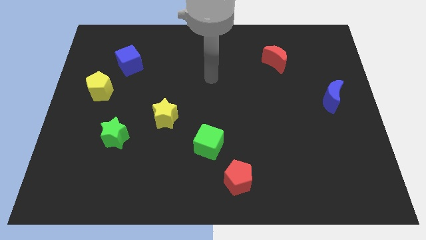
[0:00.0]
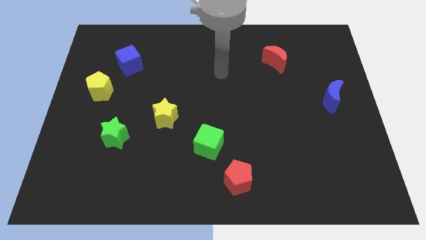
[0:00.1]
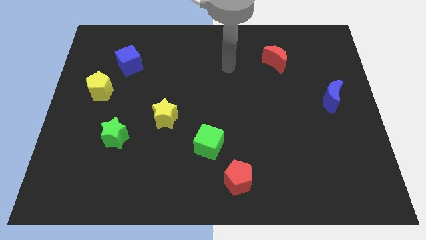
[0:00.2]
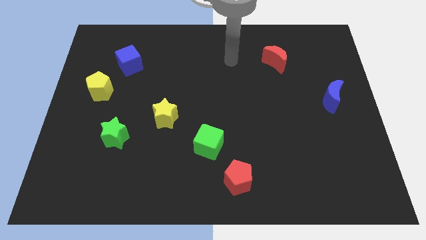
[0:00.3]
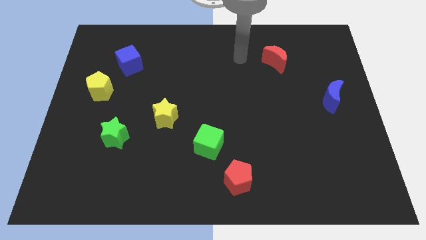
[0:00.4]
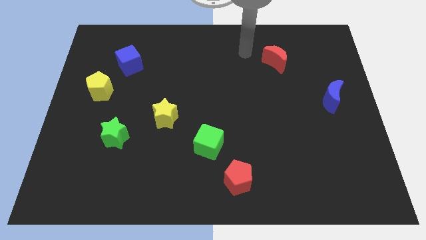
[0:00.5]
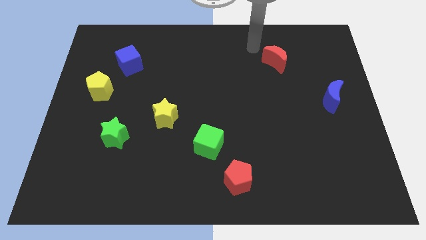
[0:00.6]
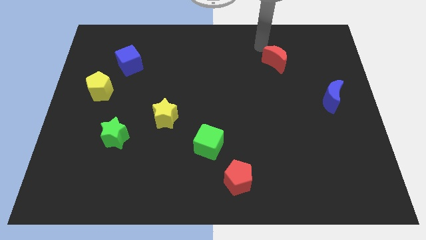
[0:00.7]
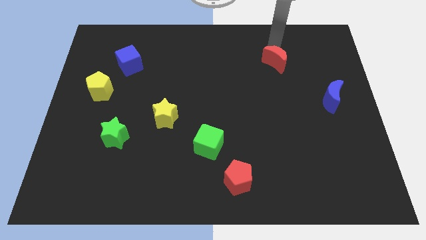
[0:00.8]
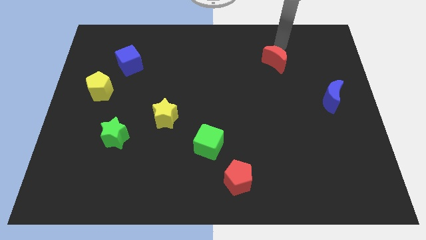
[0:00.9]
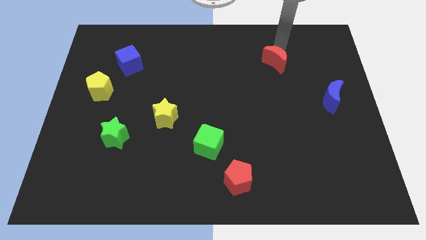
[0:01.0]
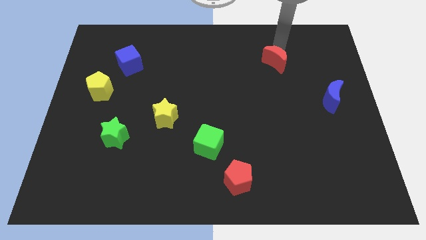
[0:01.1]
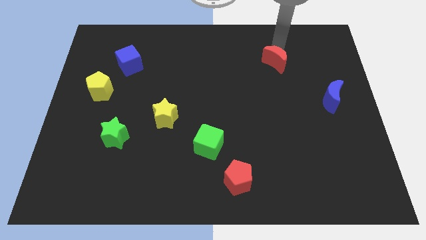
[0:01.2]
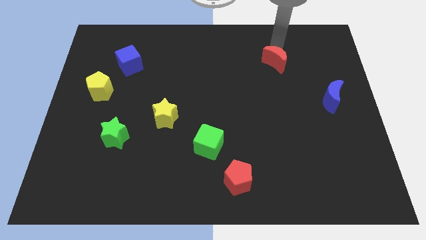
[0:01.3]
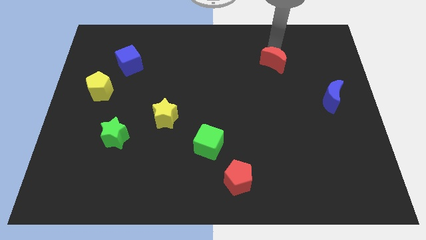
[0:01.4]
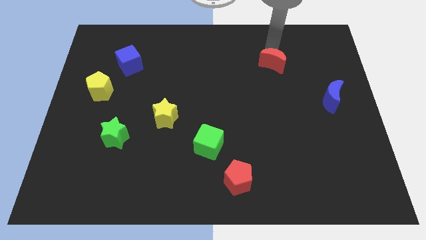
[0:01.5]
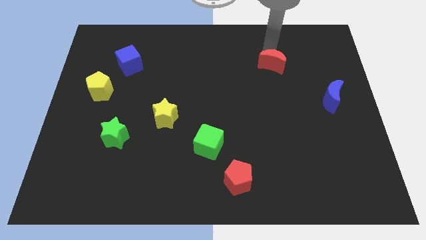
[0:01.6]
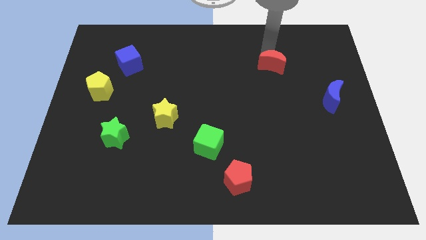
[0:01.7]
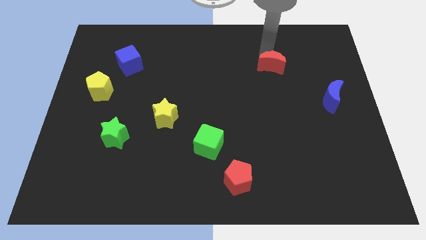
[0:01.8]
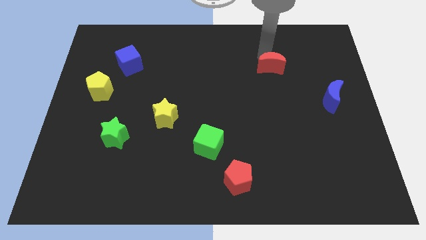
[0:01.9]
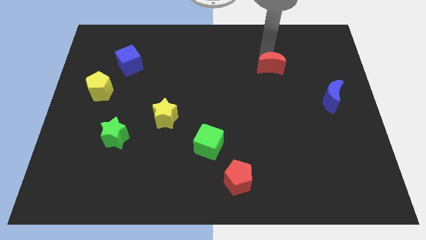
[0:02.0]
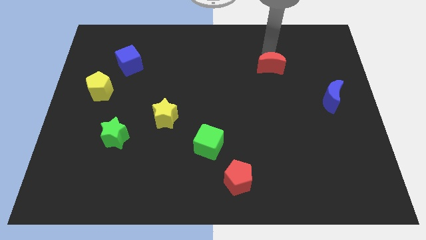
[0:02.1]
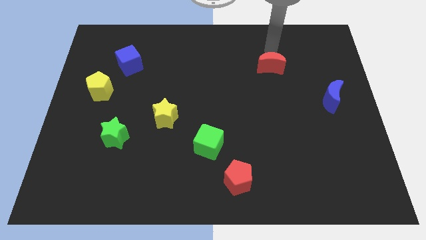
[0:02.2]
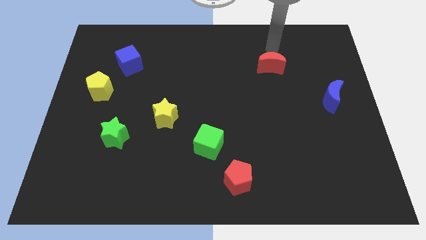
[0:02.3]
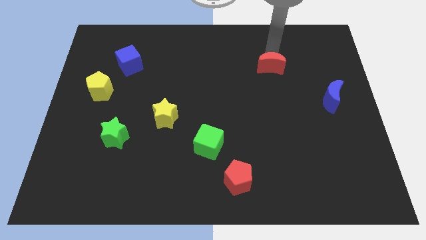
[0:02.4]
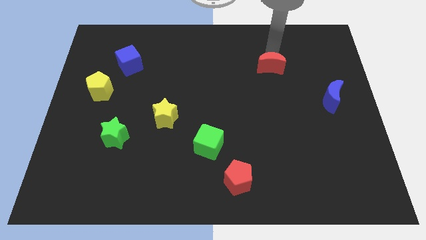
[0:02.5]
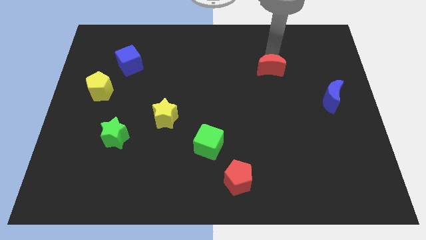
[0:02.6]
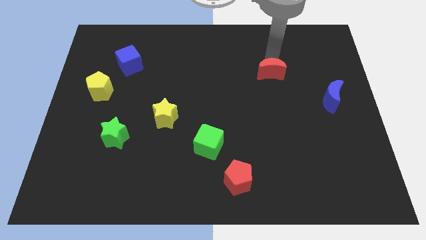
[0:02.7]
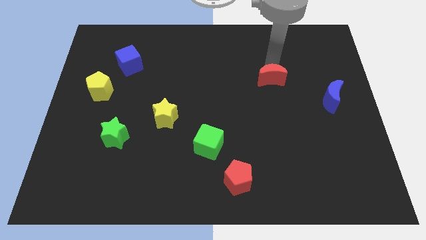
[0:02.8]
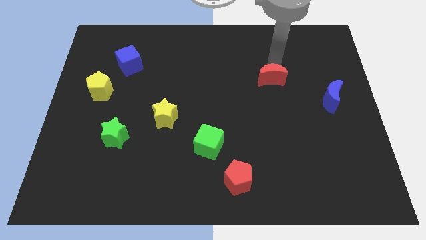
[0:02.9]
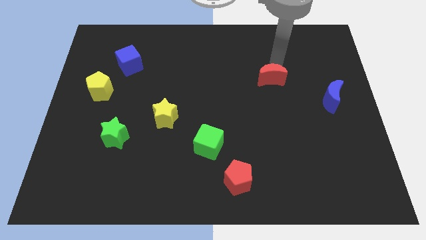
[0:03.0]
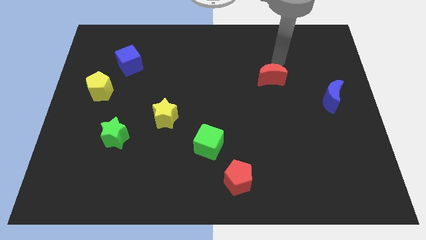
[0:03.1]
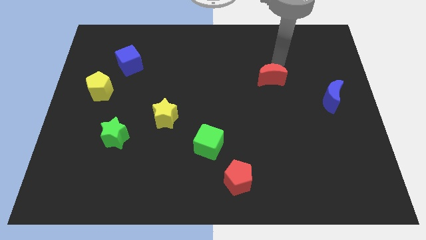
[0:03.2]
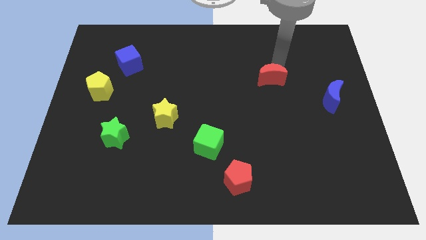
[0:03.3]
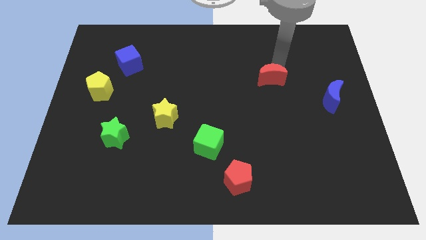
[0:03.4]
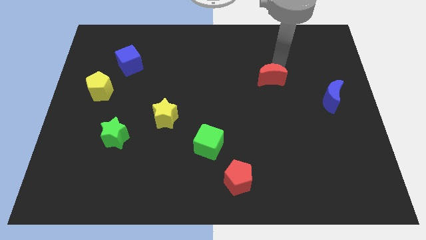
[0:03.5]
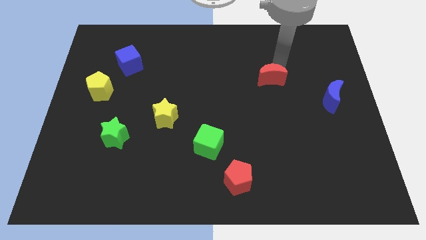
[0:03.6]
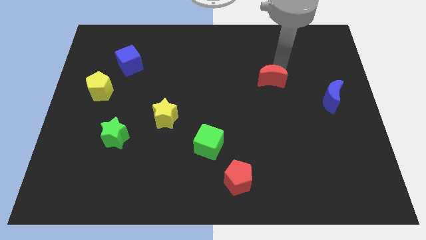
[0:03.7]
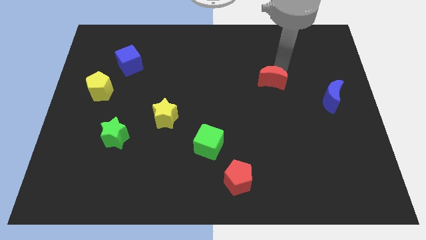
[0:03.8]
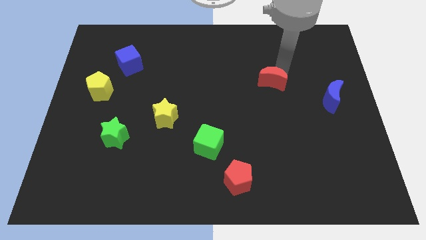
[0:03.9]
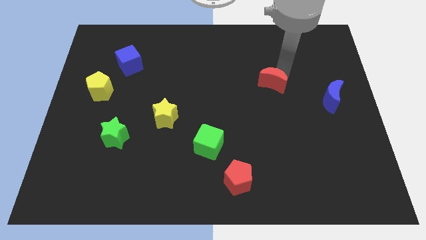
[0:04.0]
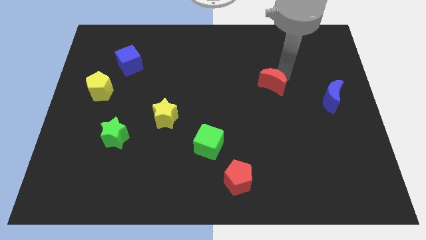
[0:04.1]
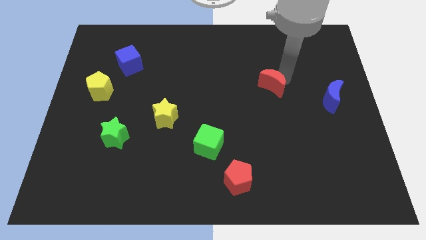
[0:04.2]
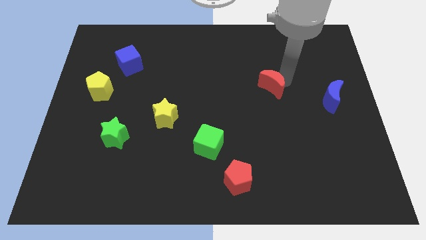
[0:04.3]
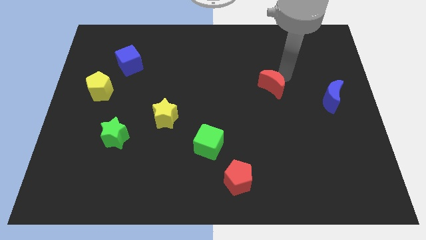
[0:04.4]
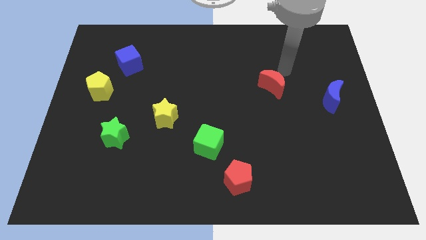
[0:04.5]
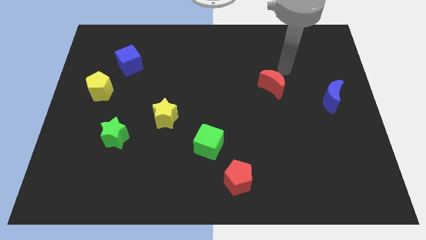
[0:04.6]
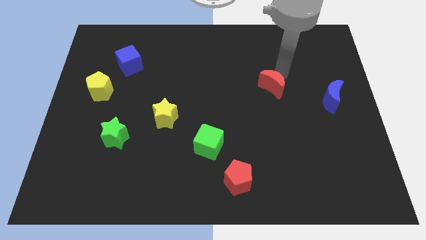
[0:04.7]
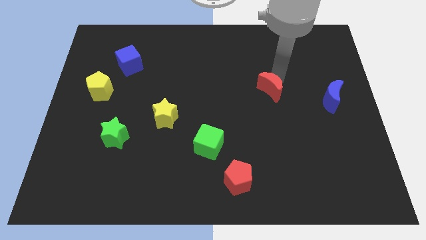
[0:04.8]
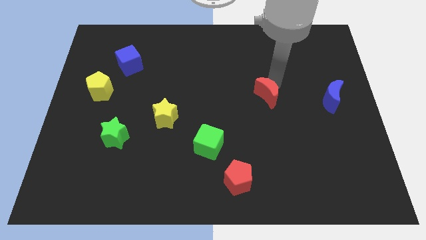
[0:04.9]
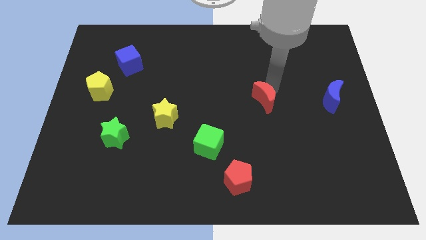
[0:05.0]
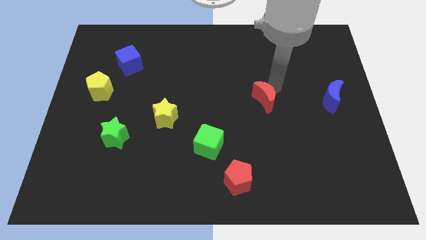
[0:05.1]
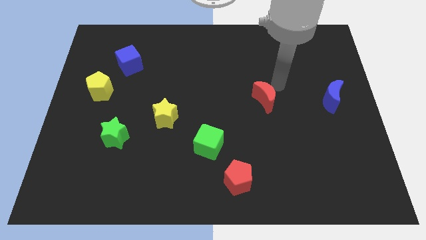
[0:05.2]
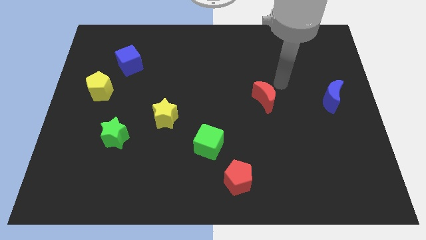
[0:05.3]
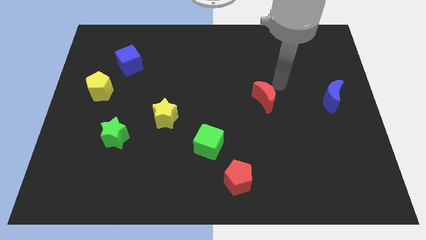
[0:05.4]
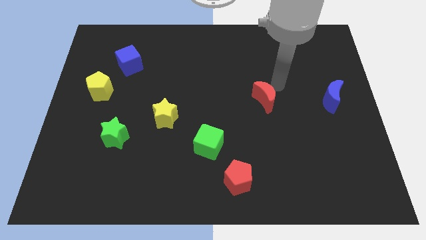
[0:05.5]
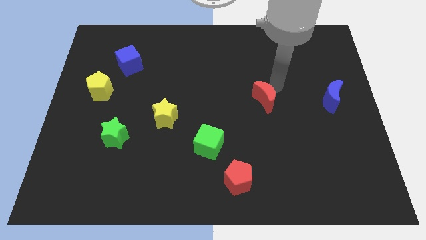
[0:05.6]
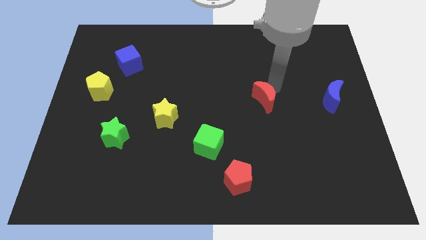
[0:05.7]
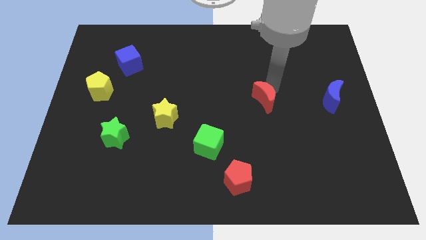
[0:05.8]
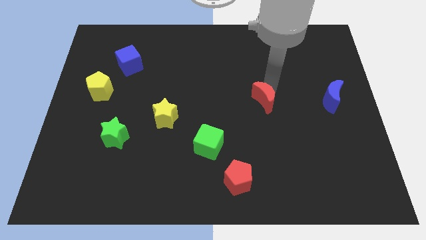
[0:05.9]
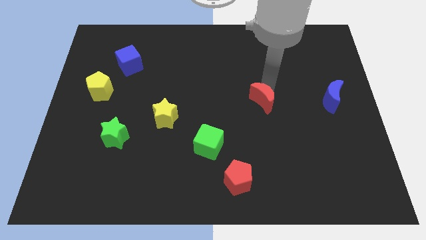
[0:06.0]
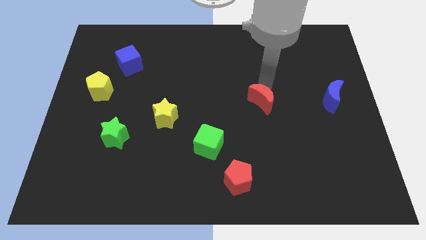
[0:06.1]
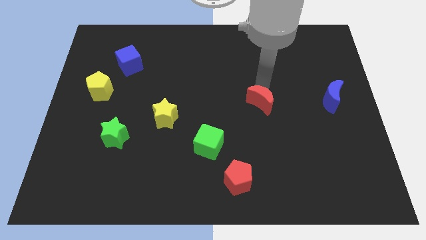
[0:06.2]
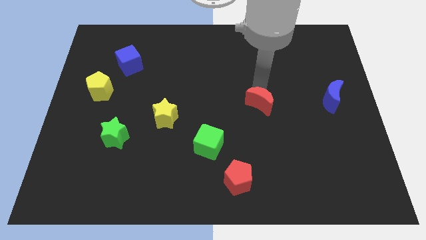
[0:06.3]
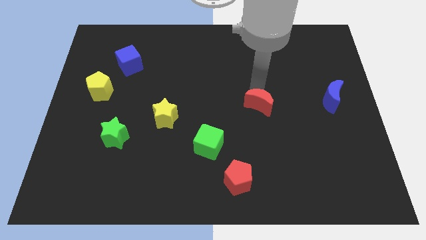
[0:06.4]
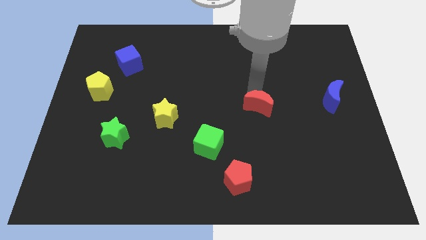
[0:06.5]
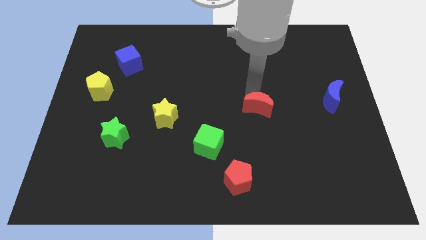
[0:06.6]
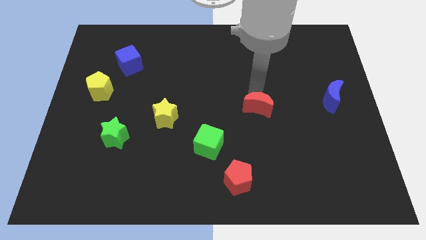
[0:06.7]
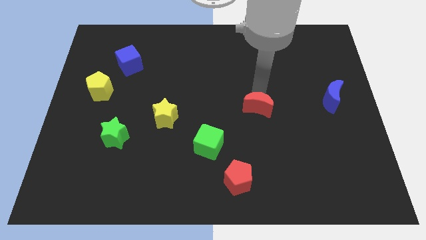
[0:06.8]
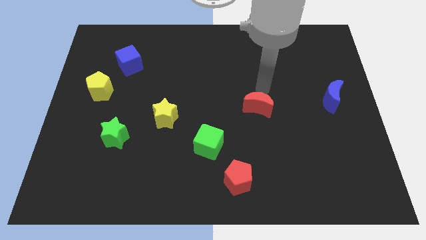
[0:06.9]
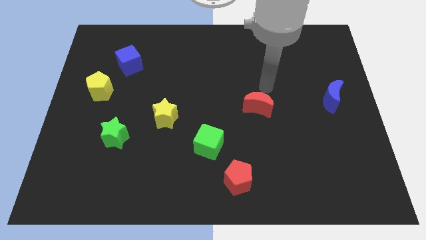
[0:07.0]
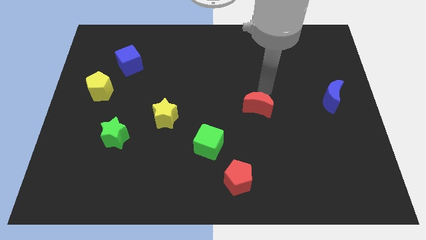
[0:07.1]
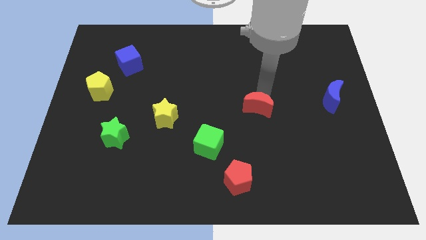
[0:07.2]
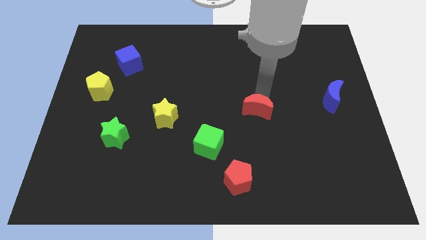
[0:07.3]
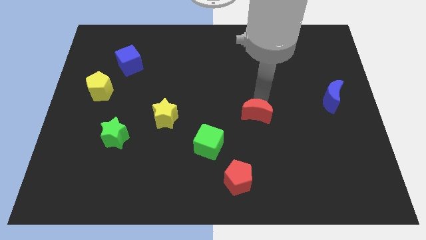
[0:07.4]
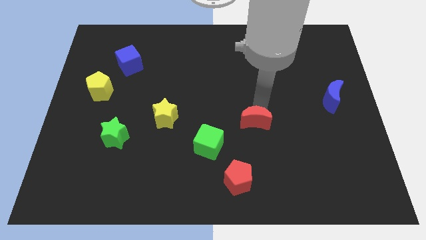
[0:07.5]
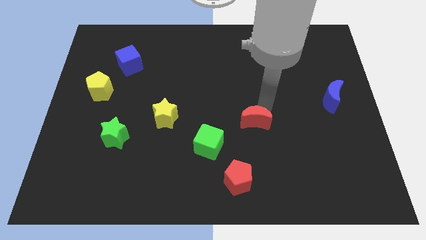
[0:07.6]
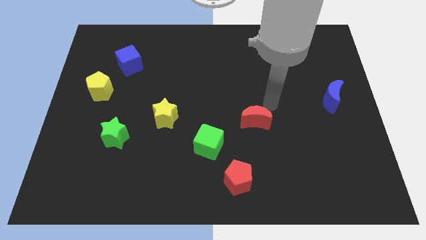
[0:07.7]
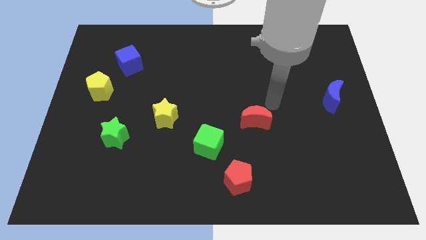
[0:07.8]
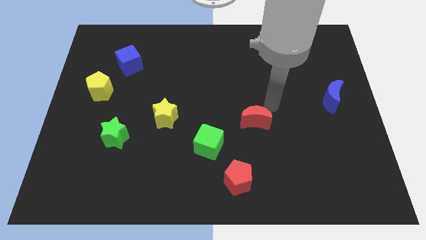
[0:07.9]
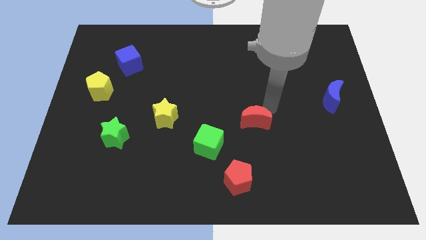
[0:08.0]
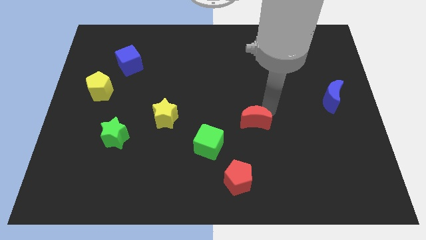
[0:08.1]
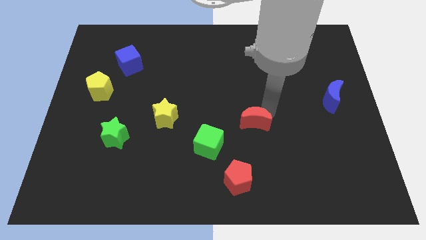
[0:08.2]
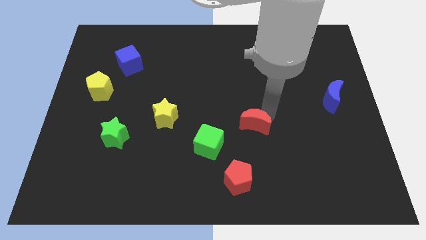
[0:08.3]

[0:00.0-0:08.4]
put the red moon above the red pentagon
